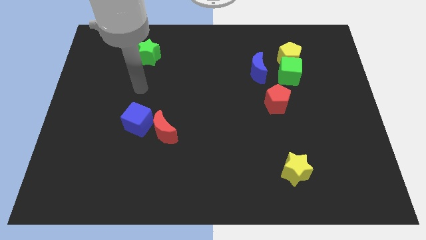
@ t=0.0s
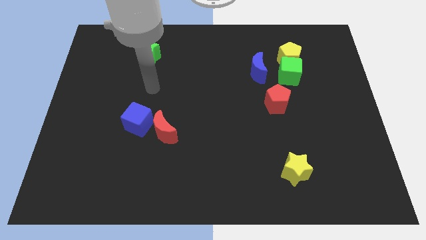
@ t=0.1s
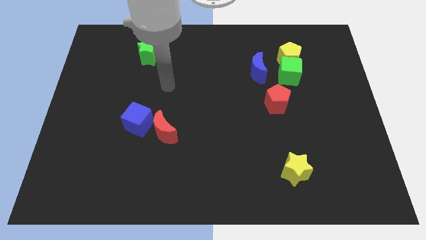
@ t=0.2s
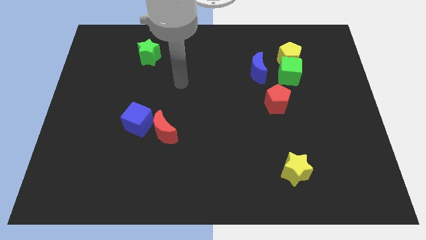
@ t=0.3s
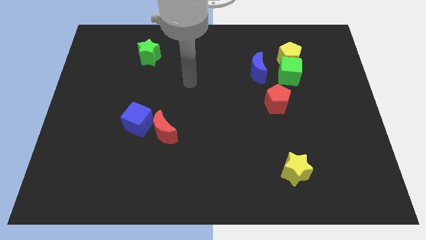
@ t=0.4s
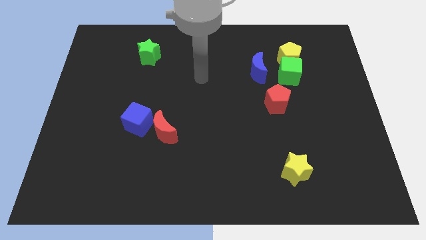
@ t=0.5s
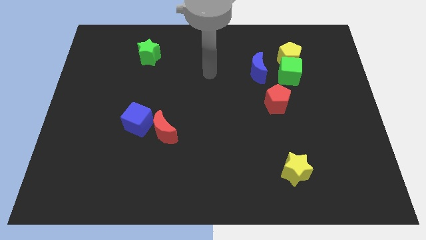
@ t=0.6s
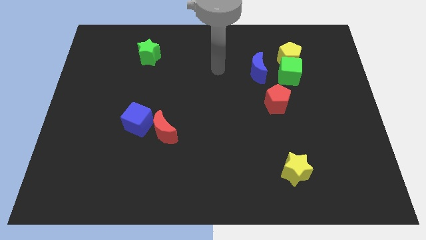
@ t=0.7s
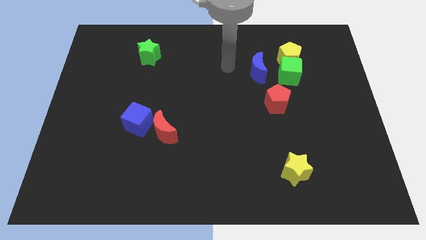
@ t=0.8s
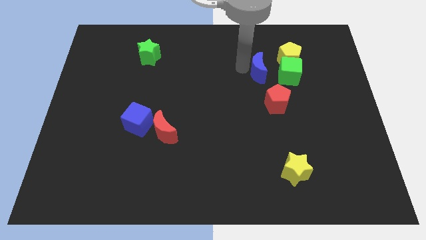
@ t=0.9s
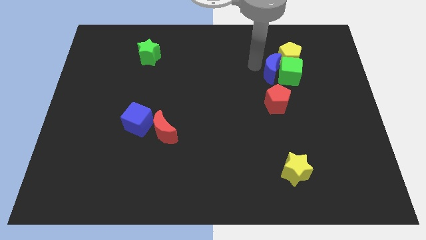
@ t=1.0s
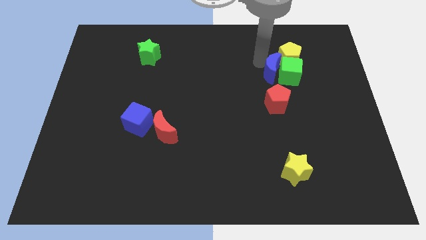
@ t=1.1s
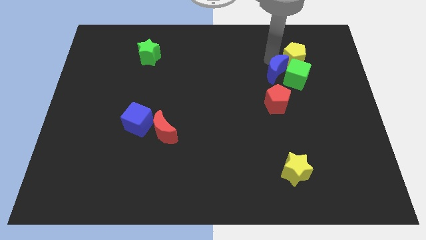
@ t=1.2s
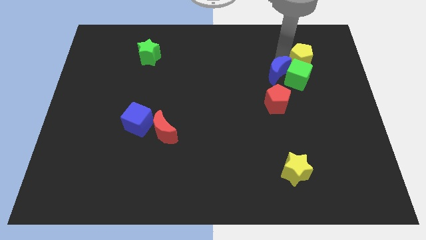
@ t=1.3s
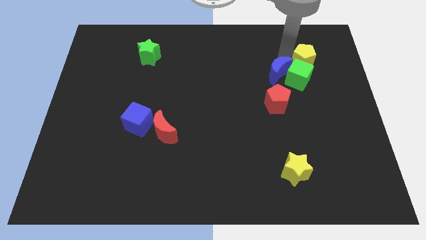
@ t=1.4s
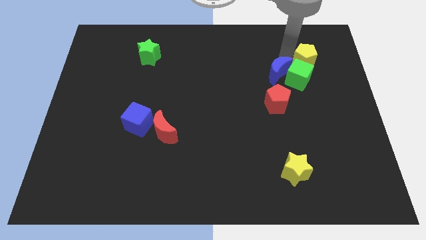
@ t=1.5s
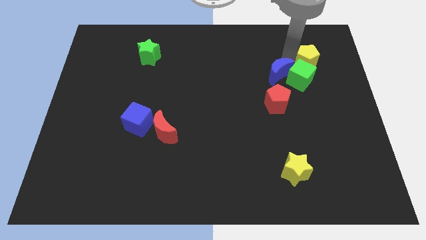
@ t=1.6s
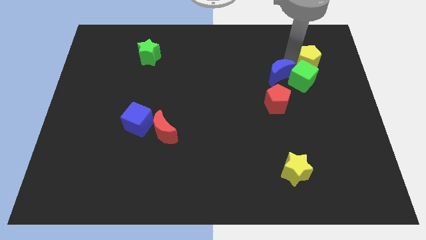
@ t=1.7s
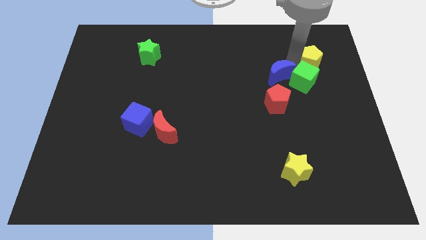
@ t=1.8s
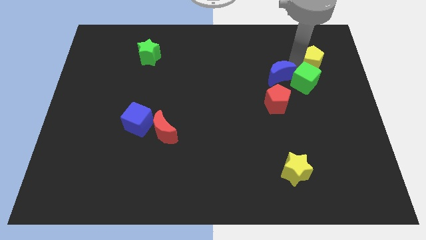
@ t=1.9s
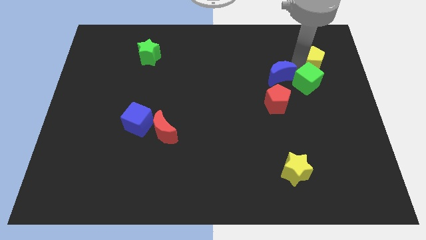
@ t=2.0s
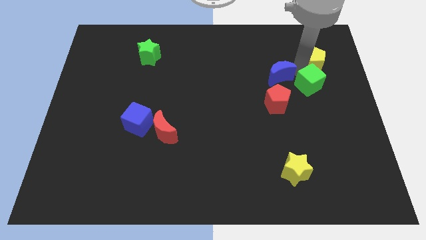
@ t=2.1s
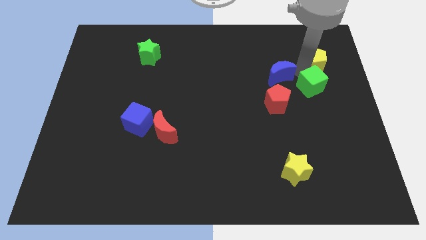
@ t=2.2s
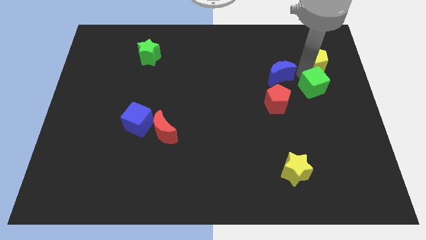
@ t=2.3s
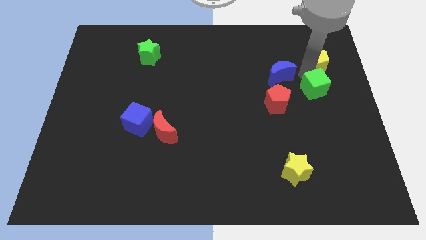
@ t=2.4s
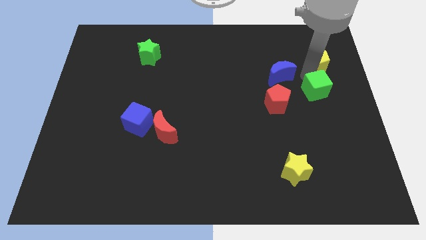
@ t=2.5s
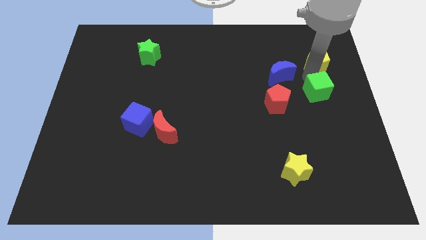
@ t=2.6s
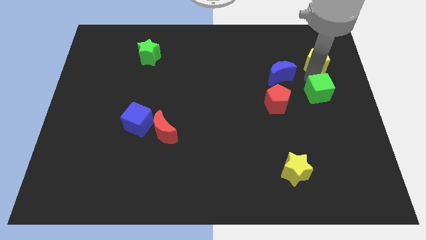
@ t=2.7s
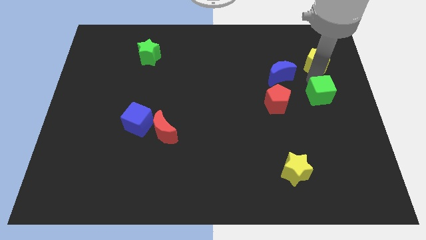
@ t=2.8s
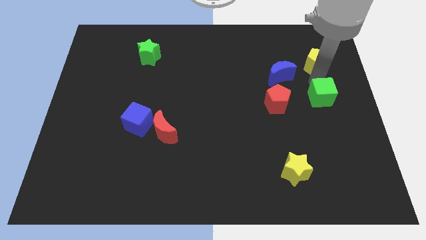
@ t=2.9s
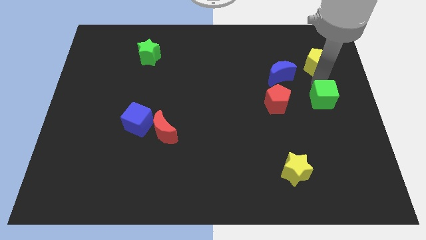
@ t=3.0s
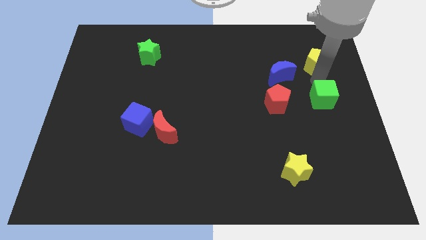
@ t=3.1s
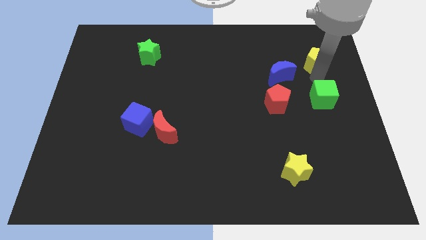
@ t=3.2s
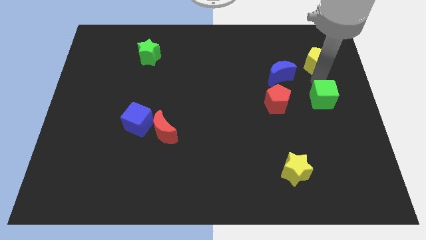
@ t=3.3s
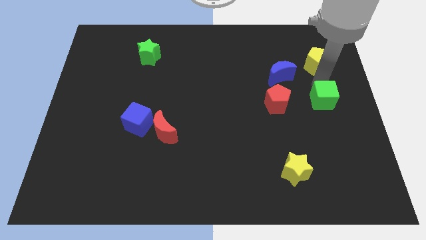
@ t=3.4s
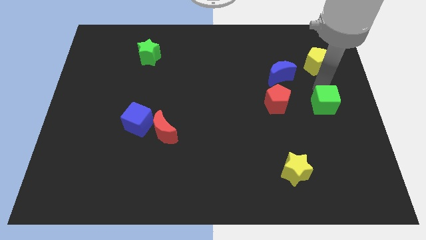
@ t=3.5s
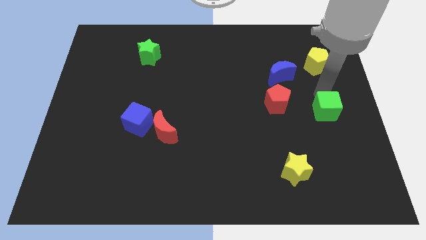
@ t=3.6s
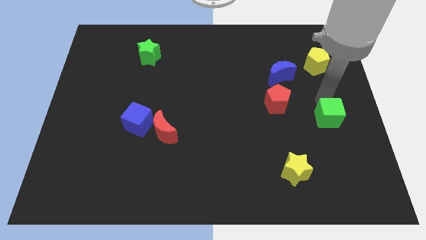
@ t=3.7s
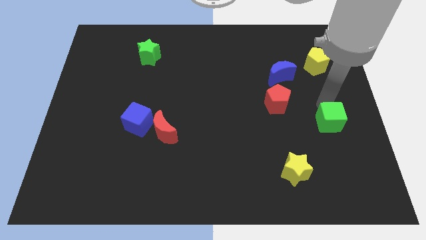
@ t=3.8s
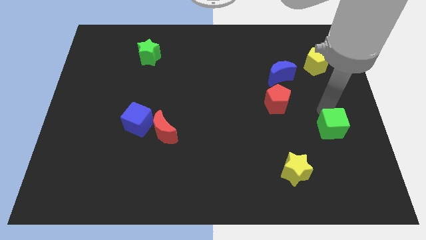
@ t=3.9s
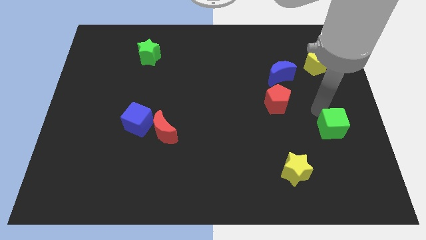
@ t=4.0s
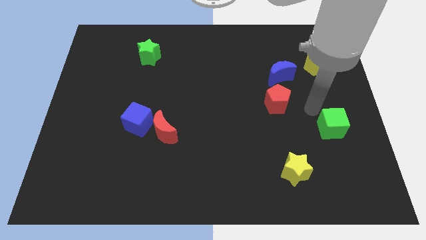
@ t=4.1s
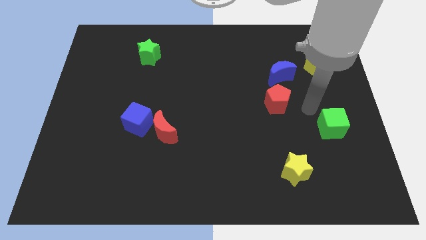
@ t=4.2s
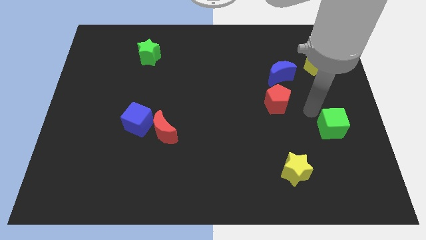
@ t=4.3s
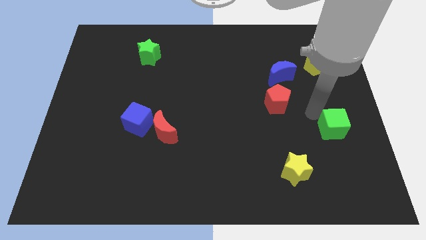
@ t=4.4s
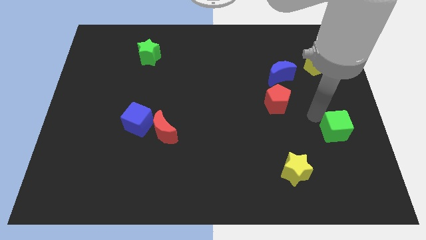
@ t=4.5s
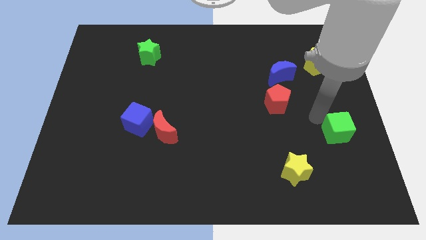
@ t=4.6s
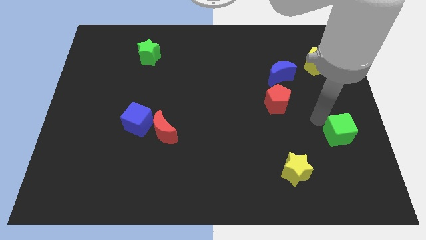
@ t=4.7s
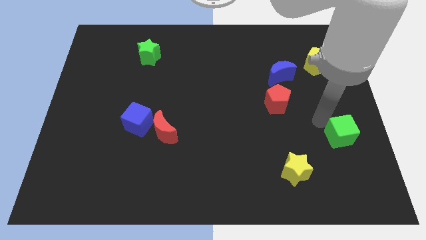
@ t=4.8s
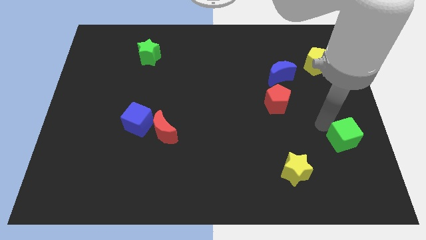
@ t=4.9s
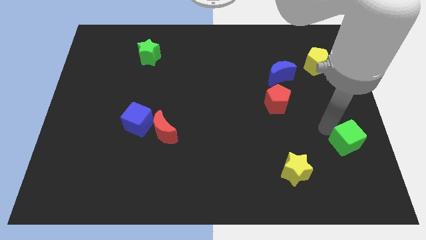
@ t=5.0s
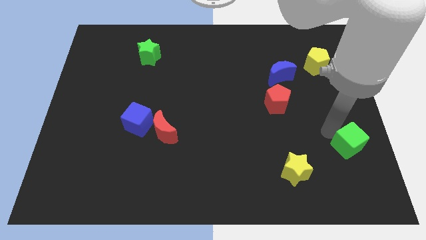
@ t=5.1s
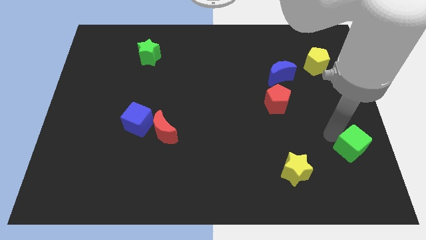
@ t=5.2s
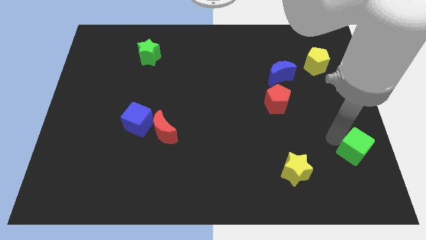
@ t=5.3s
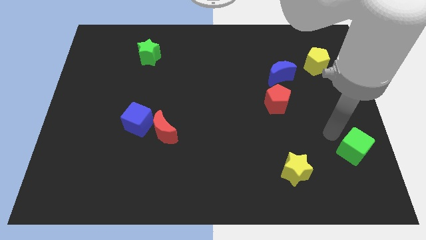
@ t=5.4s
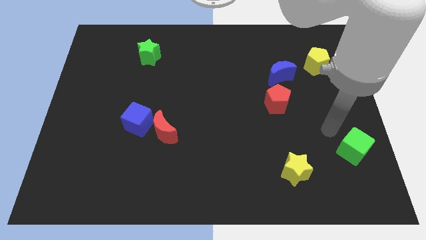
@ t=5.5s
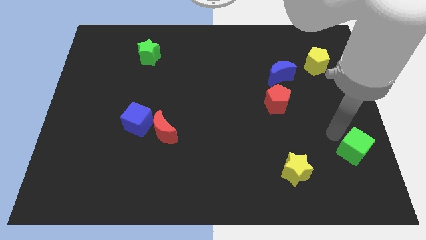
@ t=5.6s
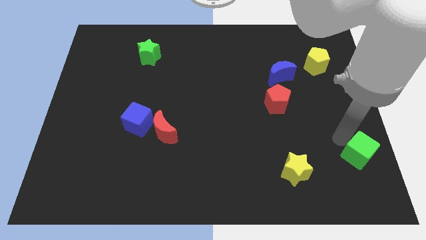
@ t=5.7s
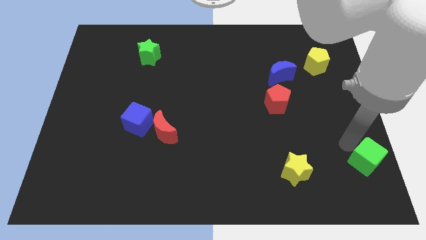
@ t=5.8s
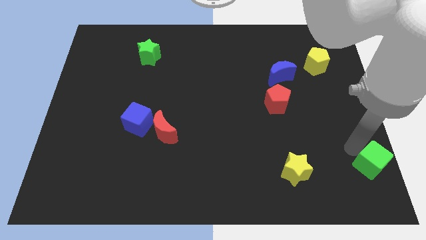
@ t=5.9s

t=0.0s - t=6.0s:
push the green cube to the bottom right of the board
